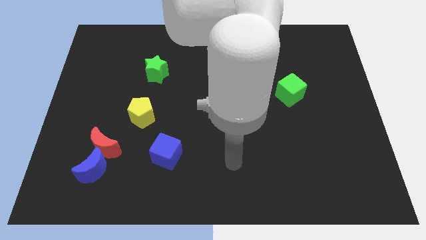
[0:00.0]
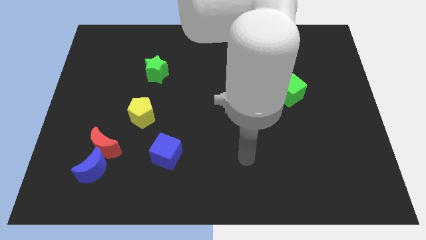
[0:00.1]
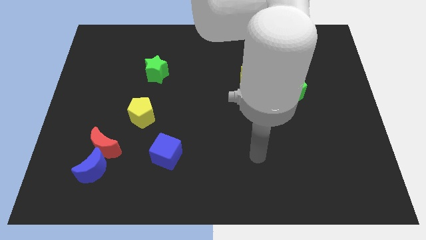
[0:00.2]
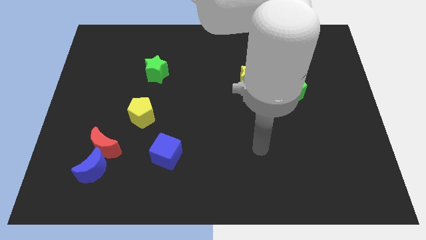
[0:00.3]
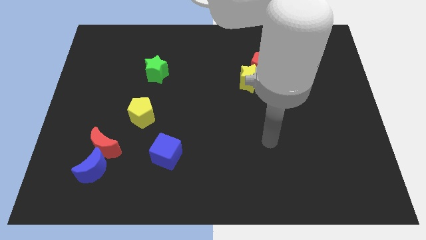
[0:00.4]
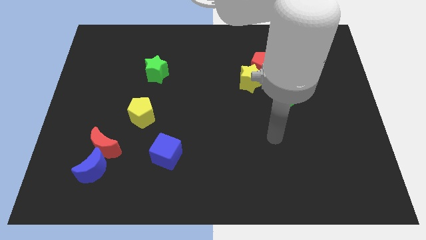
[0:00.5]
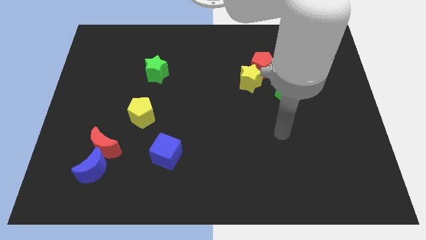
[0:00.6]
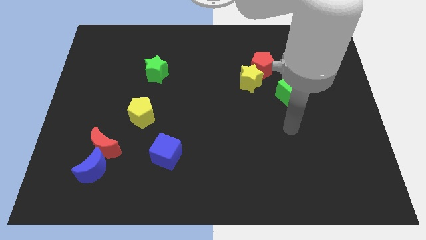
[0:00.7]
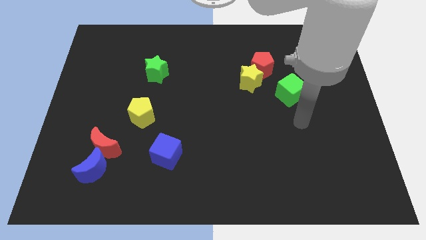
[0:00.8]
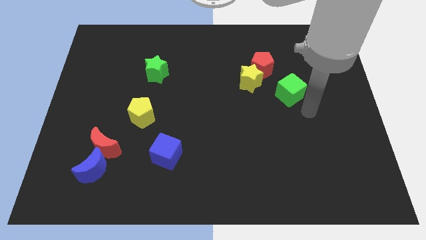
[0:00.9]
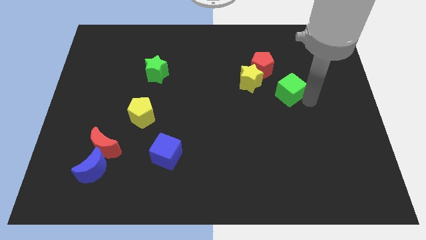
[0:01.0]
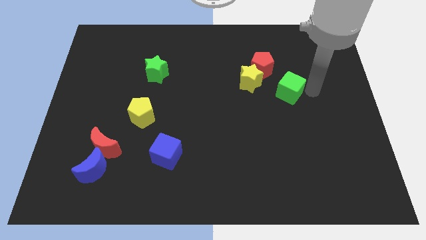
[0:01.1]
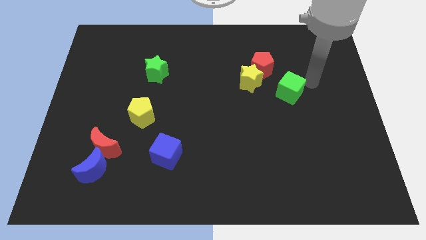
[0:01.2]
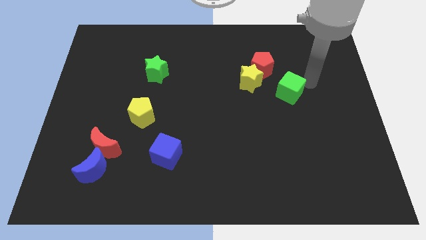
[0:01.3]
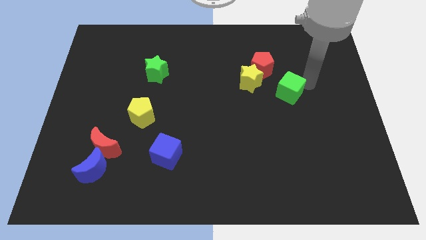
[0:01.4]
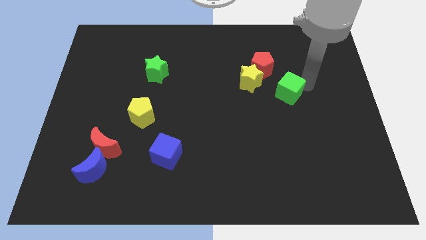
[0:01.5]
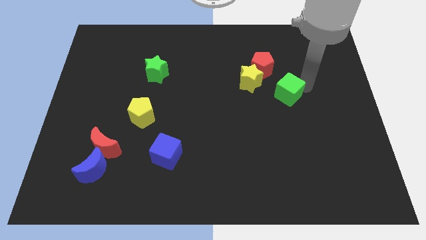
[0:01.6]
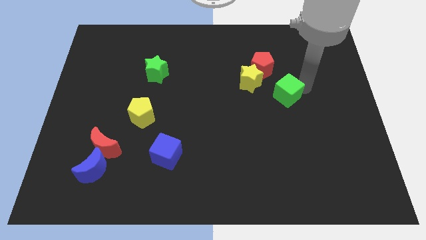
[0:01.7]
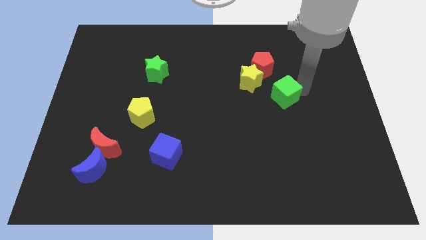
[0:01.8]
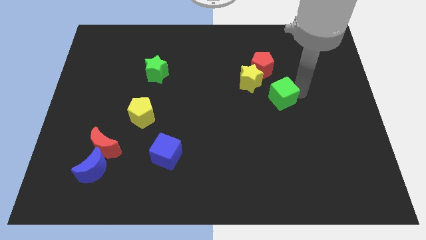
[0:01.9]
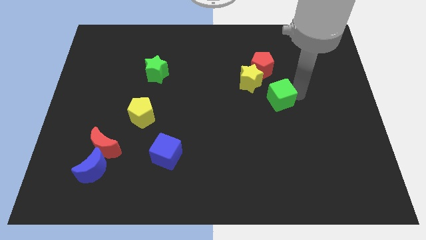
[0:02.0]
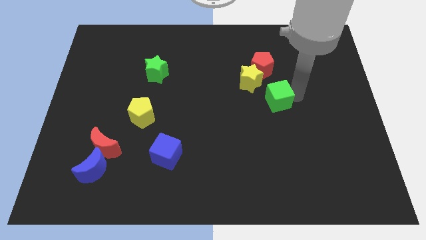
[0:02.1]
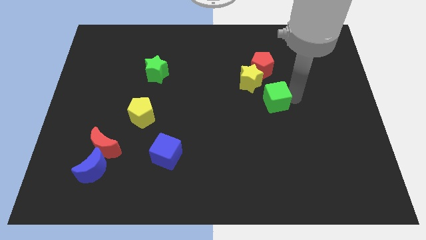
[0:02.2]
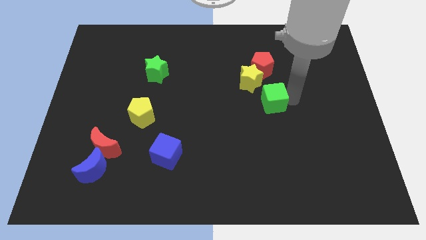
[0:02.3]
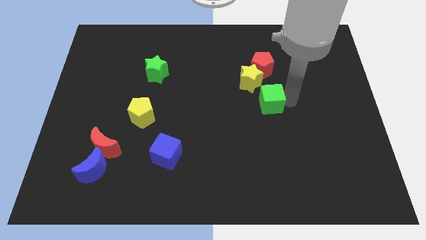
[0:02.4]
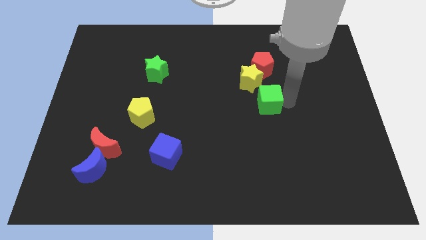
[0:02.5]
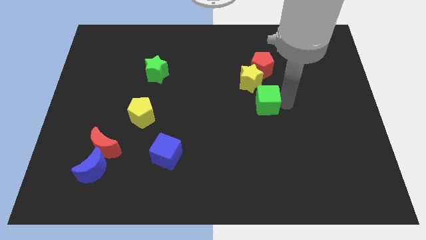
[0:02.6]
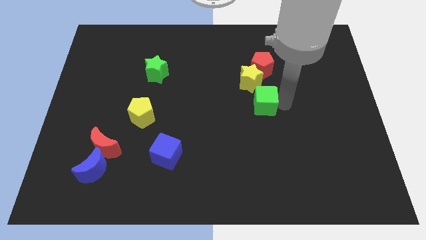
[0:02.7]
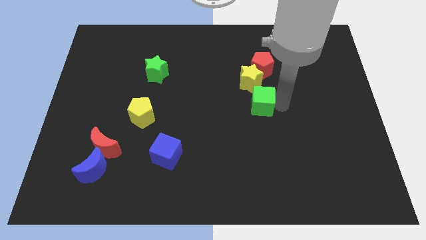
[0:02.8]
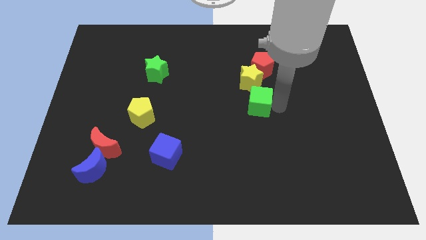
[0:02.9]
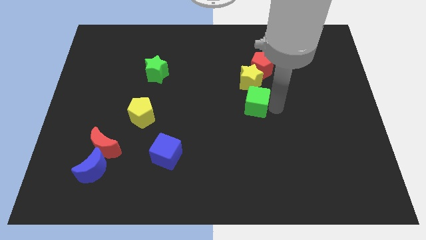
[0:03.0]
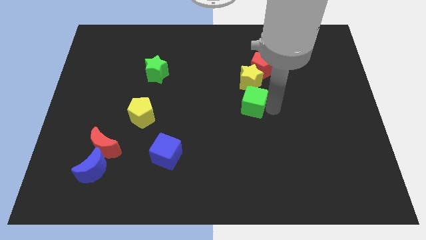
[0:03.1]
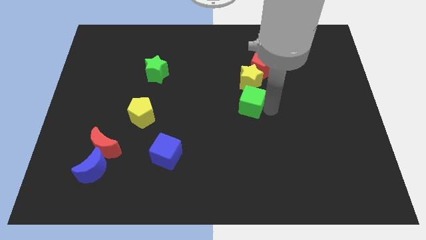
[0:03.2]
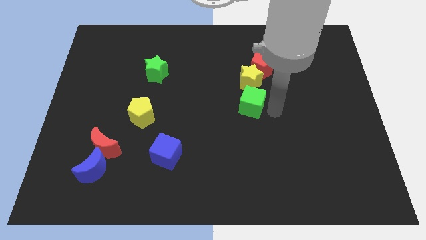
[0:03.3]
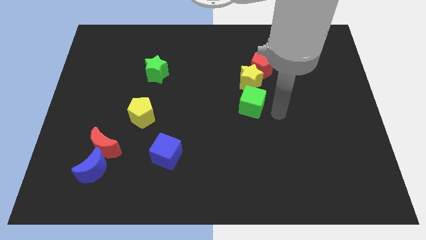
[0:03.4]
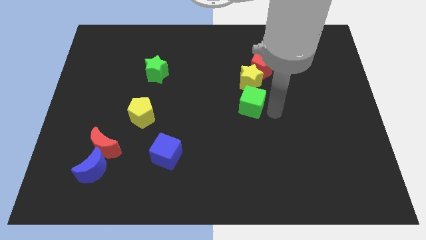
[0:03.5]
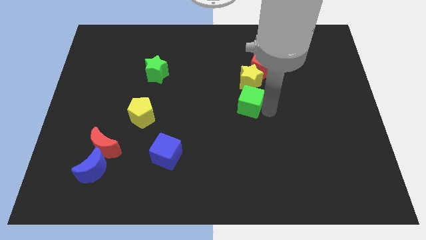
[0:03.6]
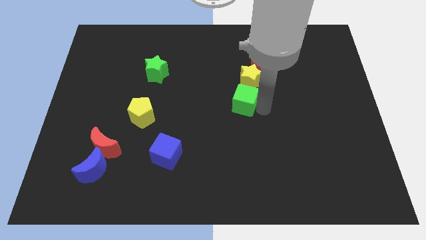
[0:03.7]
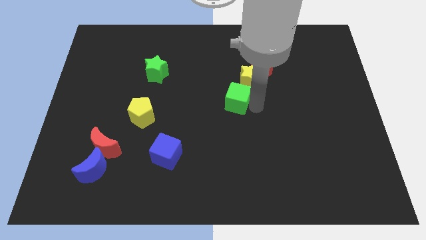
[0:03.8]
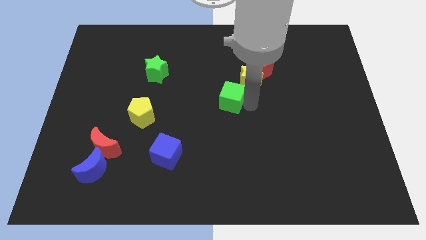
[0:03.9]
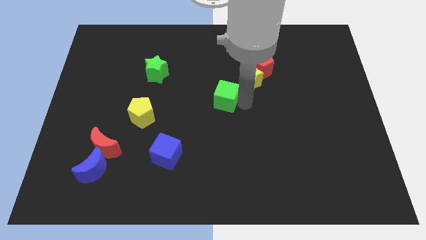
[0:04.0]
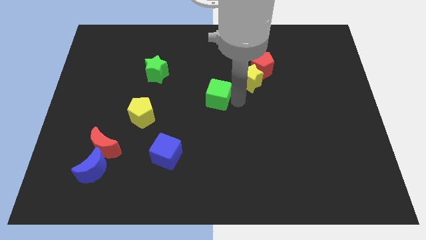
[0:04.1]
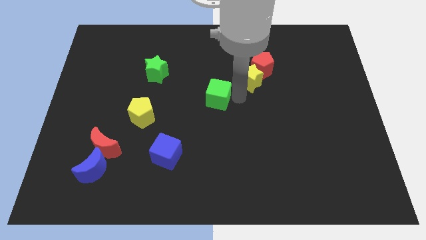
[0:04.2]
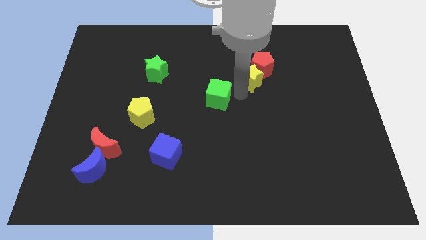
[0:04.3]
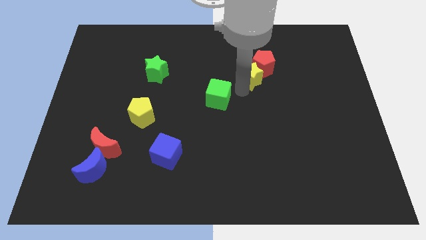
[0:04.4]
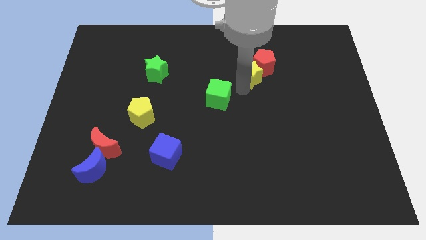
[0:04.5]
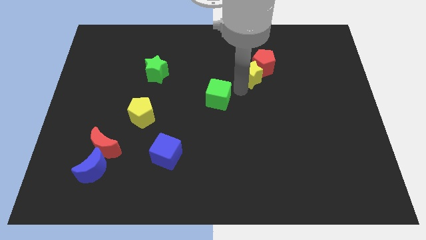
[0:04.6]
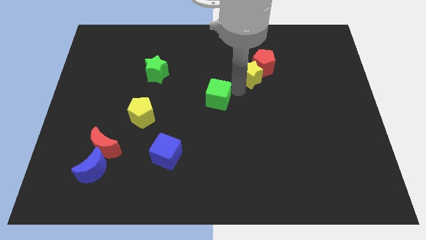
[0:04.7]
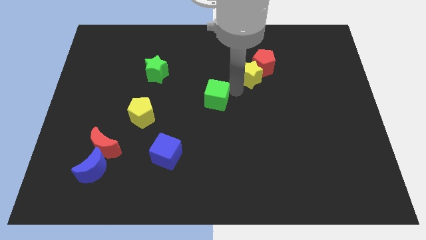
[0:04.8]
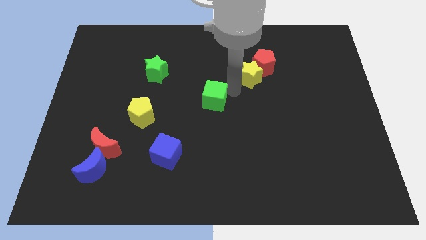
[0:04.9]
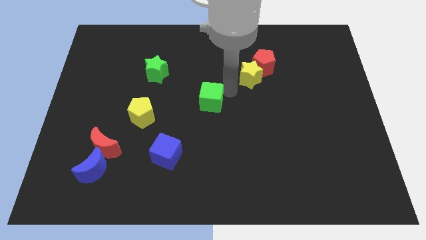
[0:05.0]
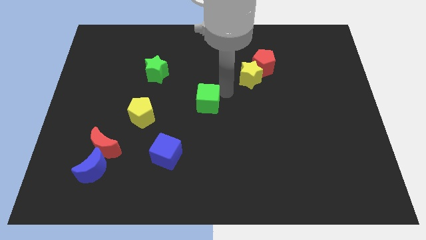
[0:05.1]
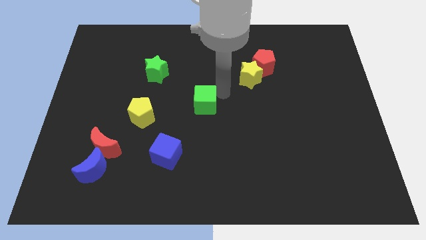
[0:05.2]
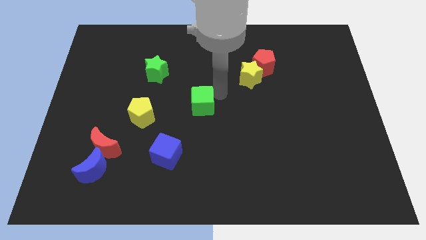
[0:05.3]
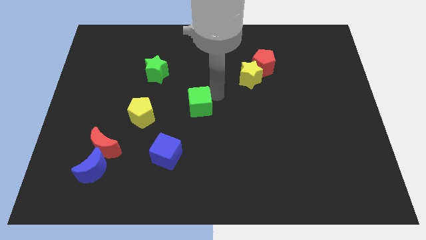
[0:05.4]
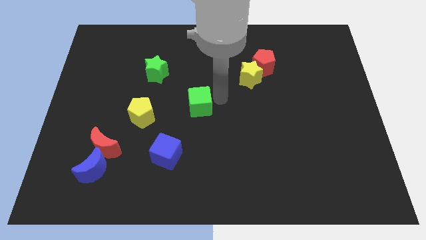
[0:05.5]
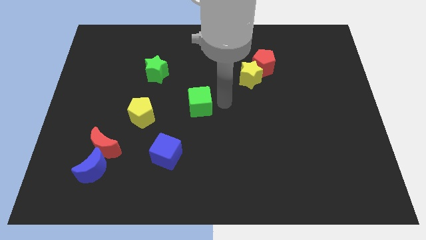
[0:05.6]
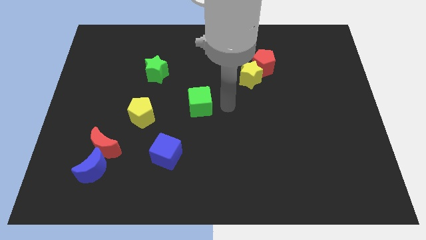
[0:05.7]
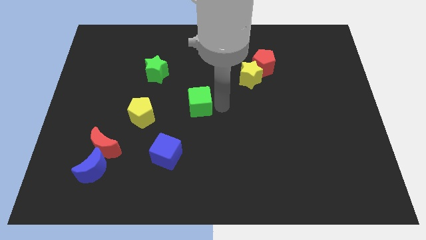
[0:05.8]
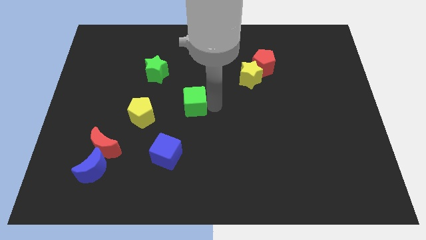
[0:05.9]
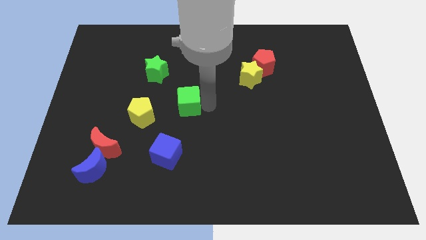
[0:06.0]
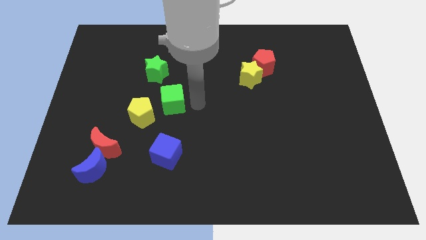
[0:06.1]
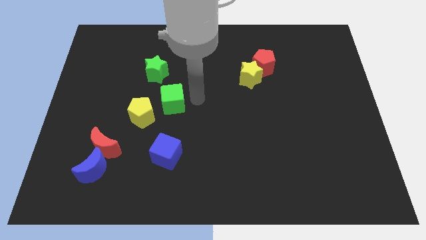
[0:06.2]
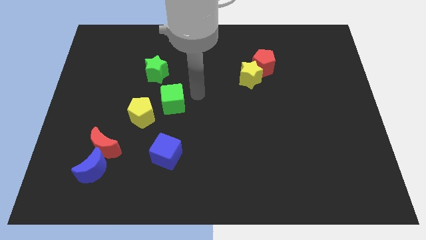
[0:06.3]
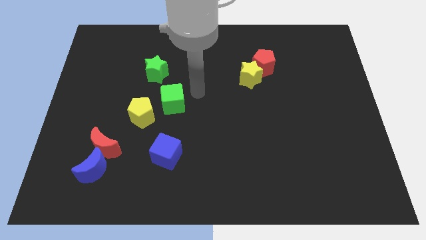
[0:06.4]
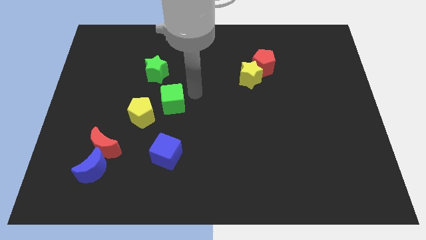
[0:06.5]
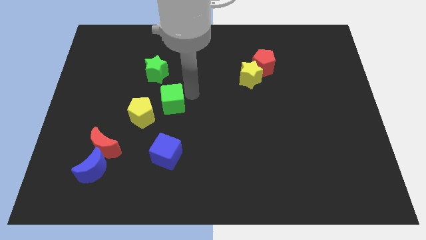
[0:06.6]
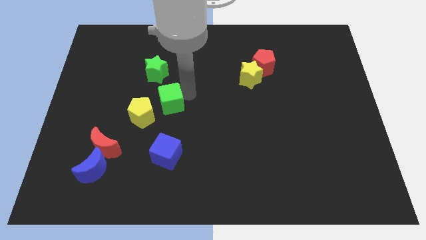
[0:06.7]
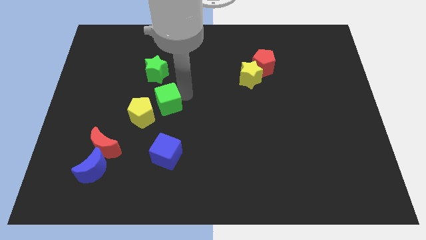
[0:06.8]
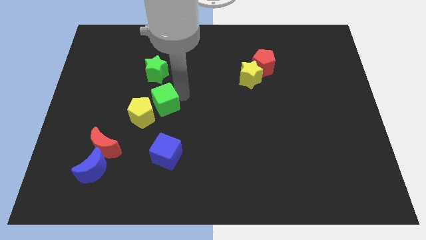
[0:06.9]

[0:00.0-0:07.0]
move the green cube to the yellow pentagon
